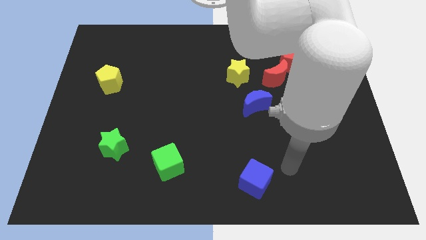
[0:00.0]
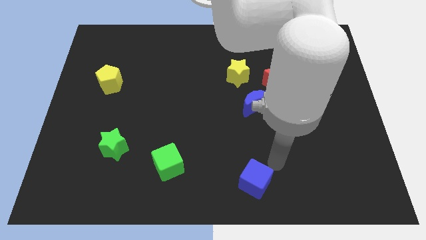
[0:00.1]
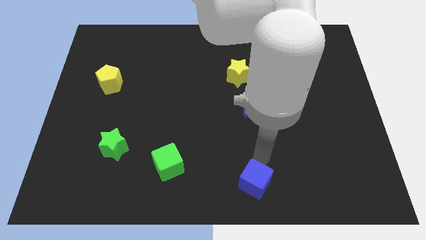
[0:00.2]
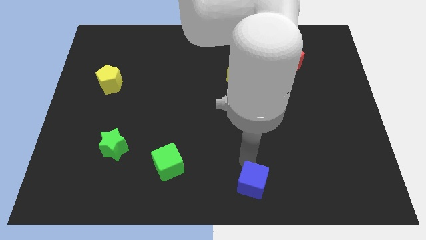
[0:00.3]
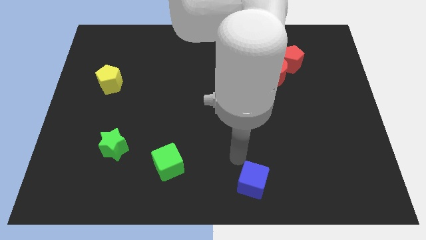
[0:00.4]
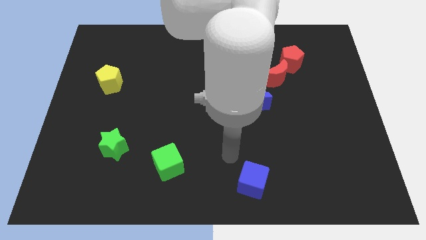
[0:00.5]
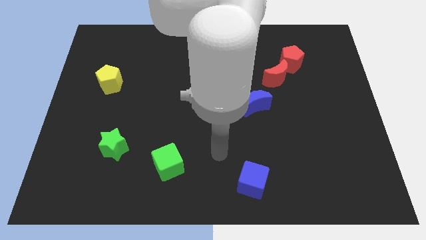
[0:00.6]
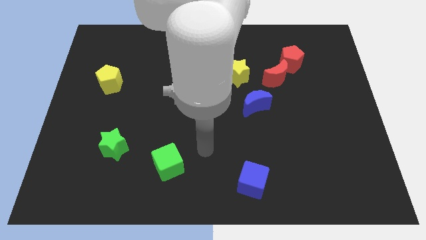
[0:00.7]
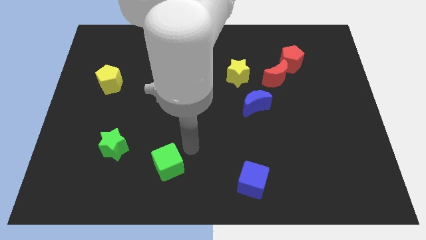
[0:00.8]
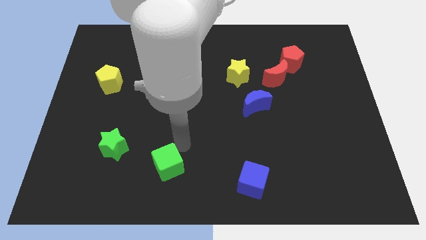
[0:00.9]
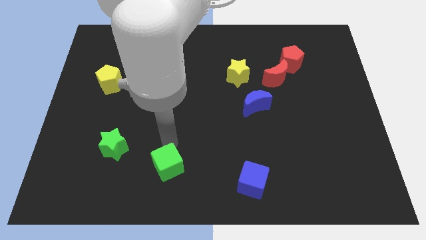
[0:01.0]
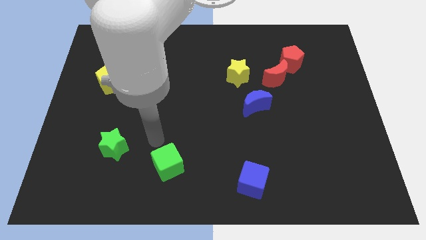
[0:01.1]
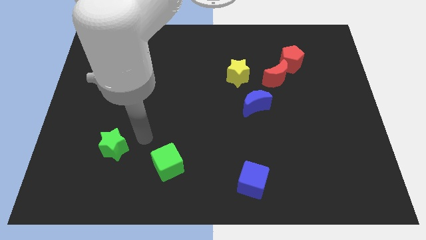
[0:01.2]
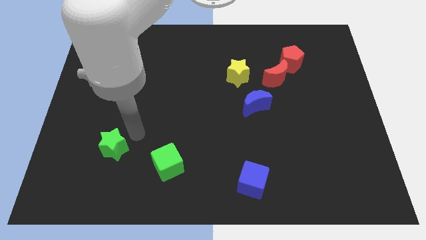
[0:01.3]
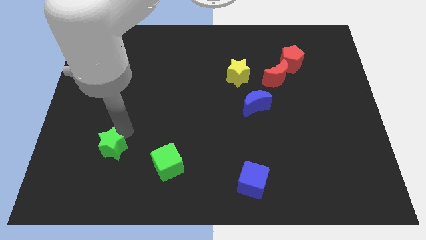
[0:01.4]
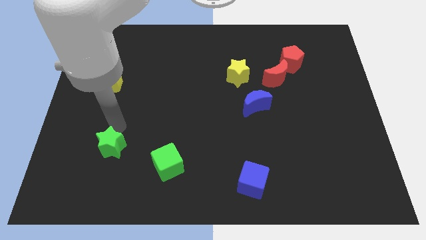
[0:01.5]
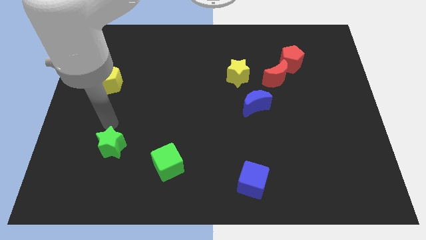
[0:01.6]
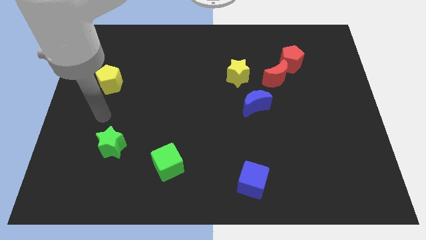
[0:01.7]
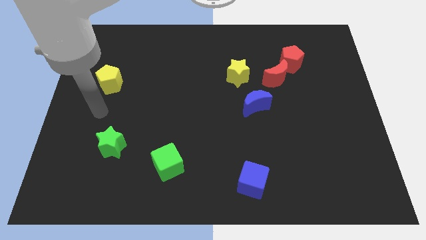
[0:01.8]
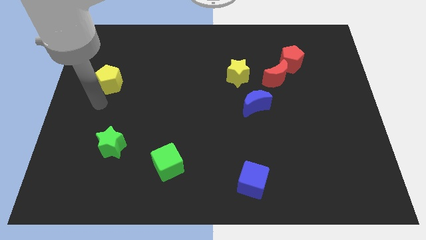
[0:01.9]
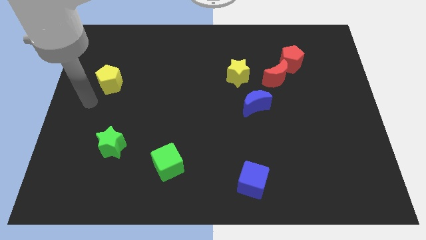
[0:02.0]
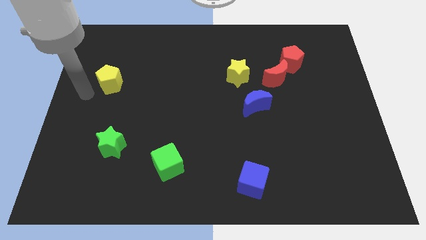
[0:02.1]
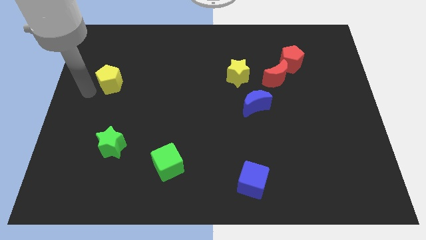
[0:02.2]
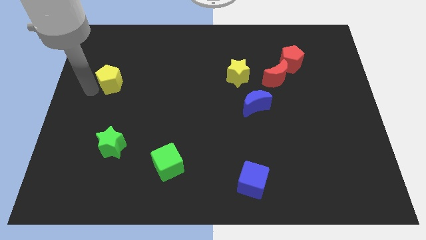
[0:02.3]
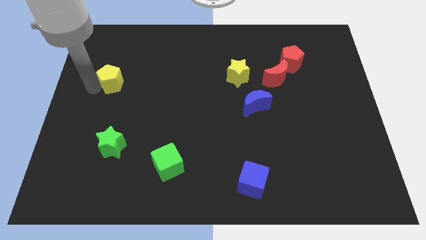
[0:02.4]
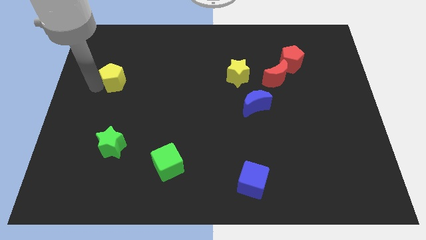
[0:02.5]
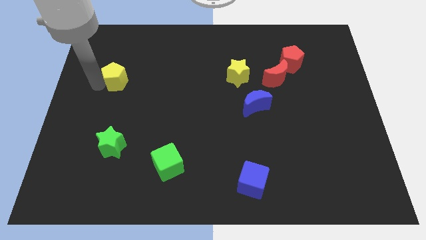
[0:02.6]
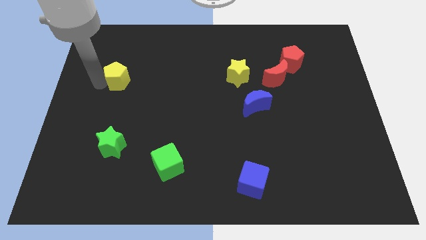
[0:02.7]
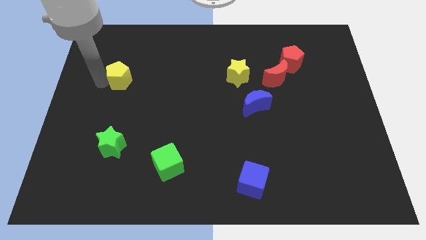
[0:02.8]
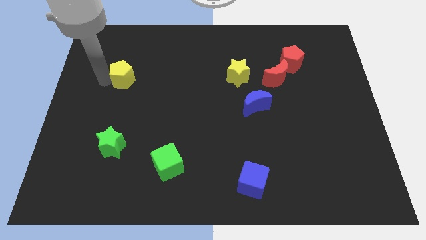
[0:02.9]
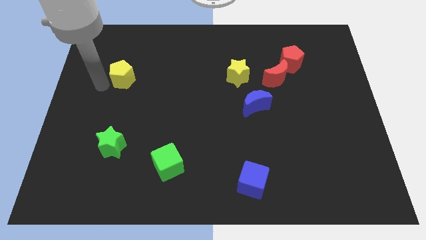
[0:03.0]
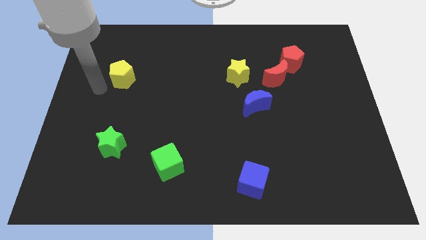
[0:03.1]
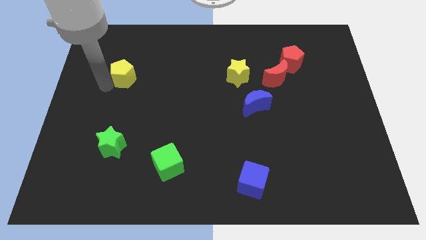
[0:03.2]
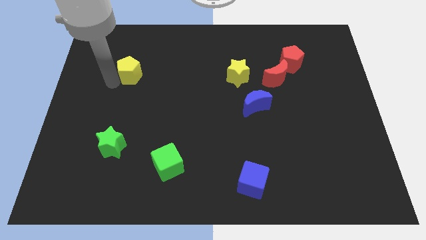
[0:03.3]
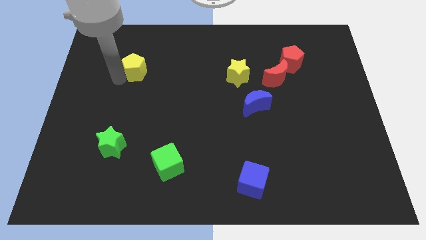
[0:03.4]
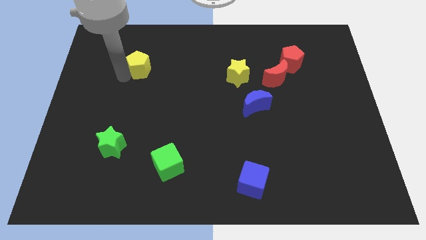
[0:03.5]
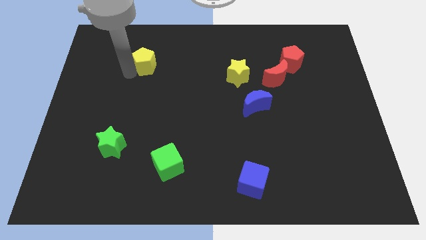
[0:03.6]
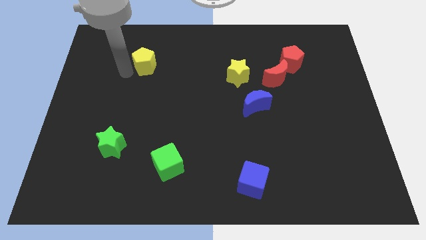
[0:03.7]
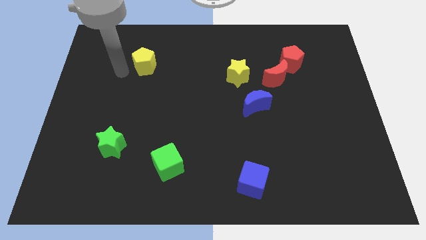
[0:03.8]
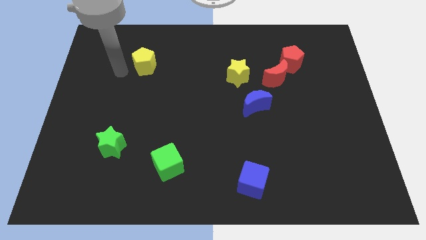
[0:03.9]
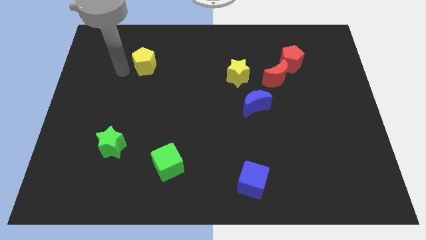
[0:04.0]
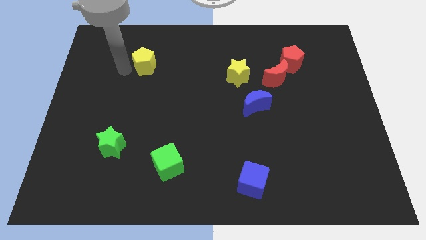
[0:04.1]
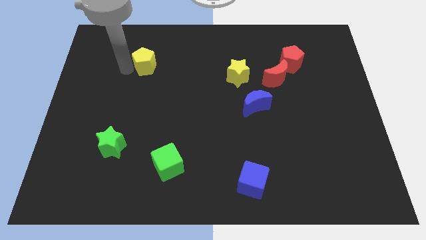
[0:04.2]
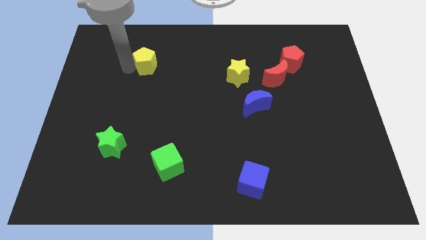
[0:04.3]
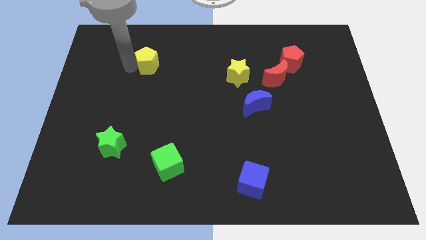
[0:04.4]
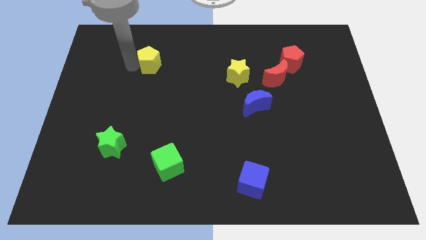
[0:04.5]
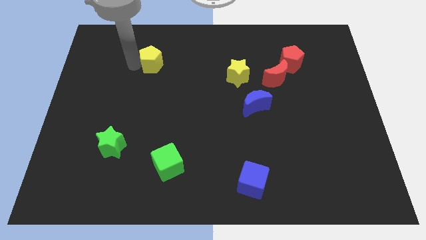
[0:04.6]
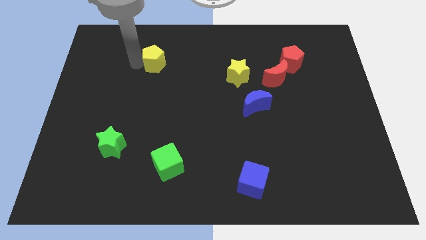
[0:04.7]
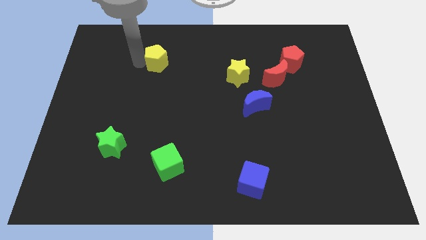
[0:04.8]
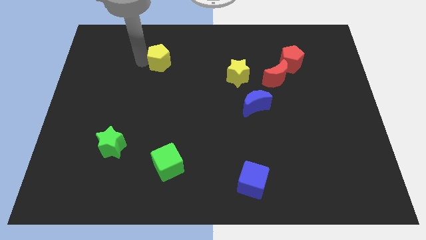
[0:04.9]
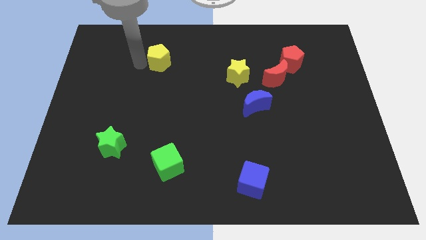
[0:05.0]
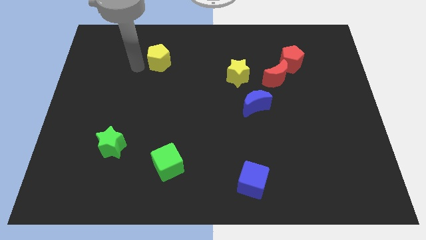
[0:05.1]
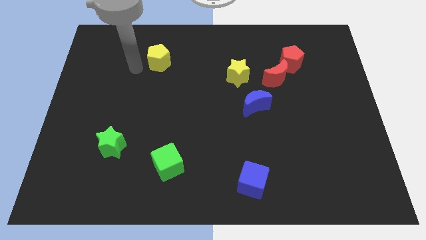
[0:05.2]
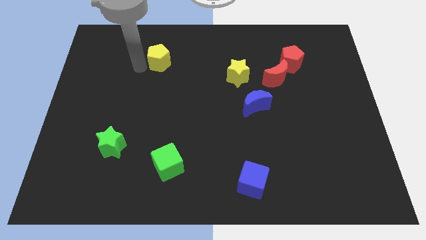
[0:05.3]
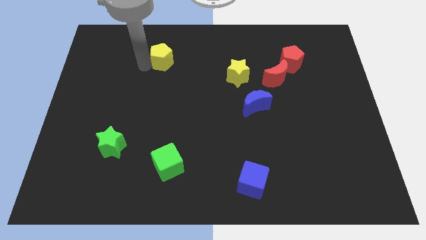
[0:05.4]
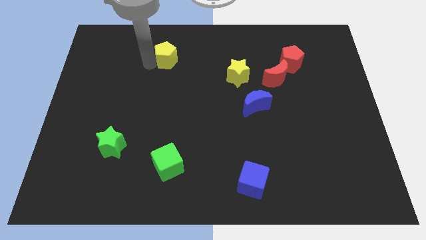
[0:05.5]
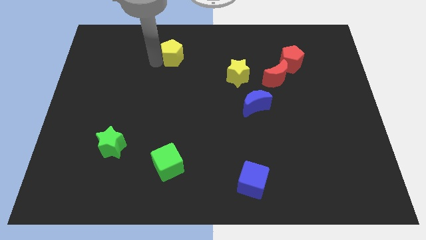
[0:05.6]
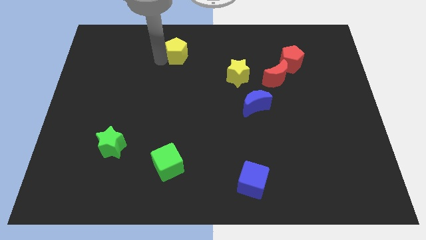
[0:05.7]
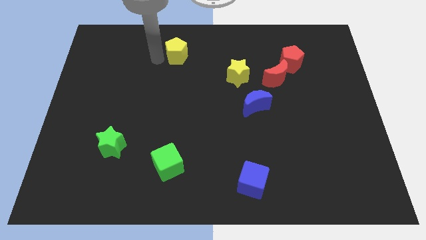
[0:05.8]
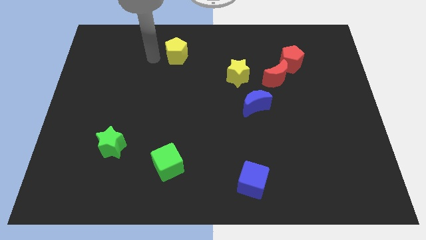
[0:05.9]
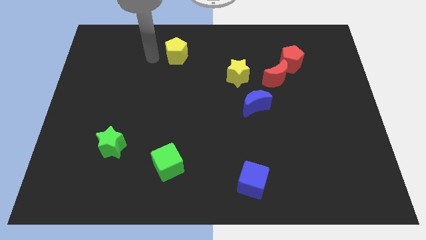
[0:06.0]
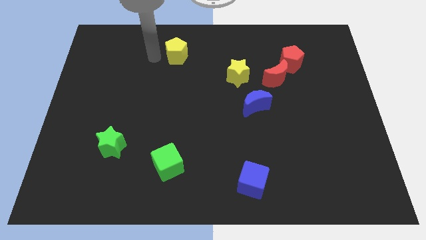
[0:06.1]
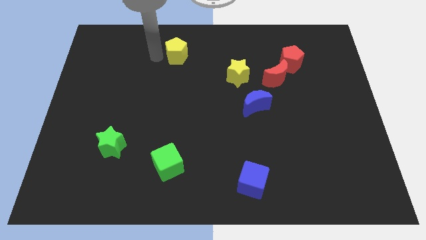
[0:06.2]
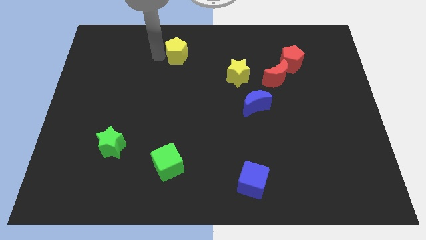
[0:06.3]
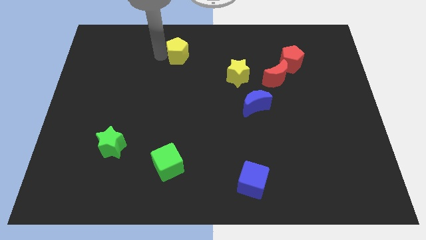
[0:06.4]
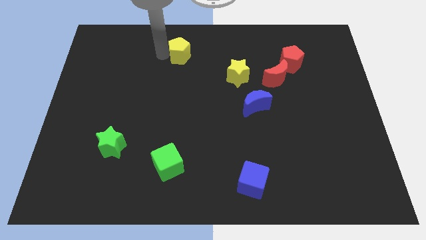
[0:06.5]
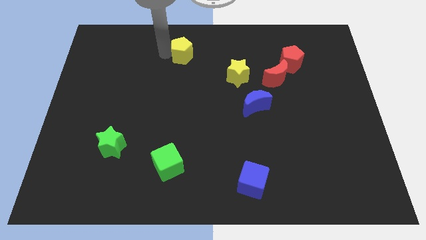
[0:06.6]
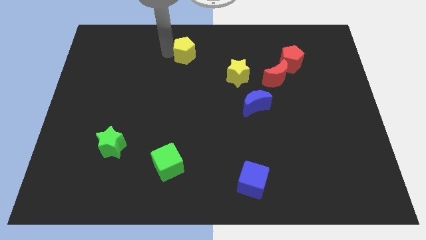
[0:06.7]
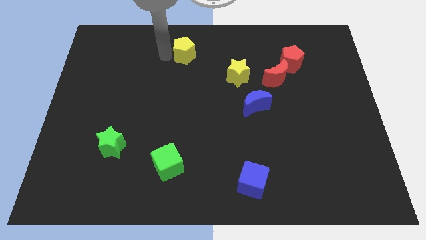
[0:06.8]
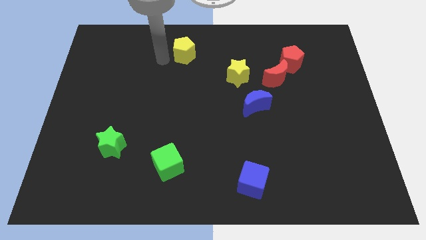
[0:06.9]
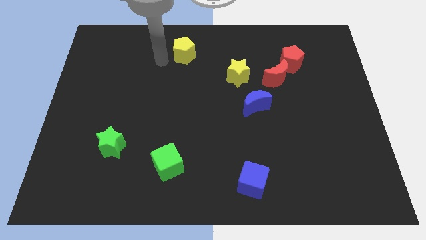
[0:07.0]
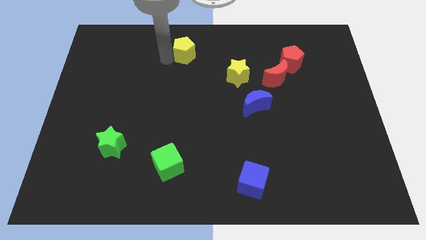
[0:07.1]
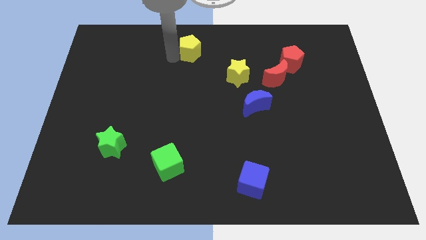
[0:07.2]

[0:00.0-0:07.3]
move the yellow pentagon to the top side
